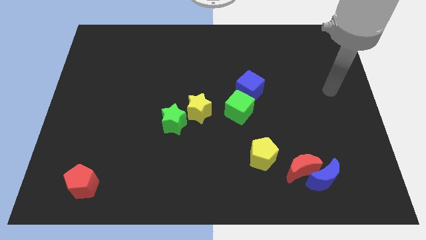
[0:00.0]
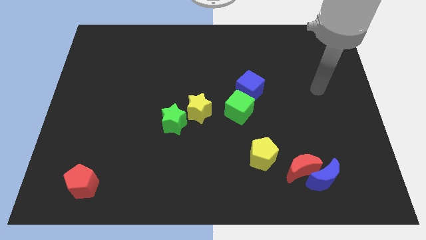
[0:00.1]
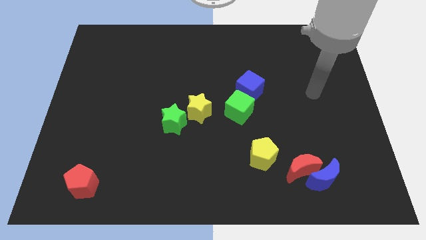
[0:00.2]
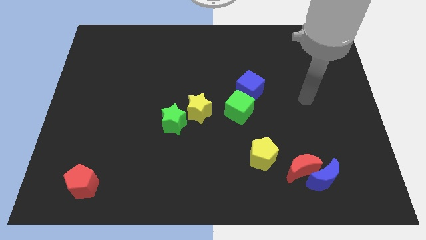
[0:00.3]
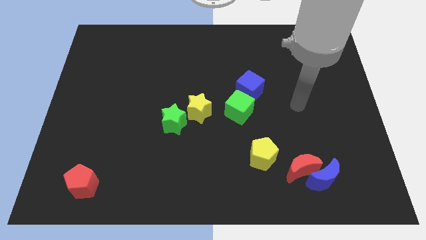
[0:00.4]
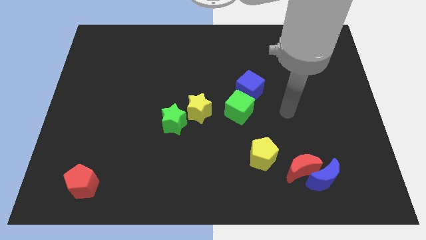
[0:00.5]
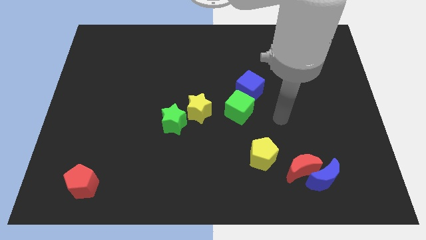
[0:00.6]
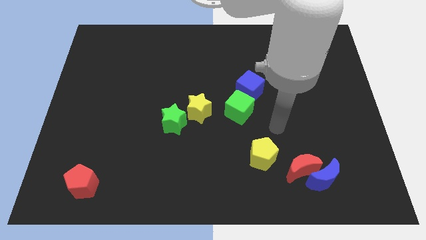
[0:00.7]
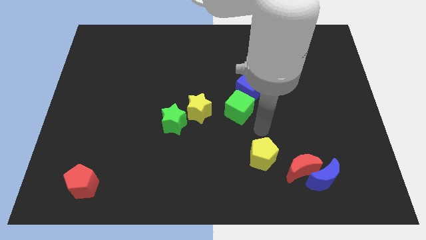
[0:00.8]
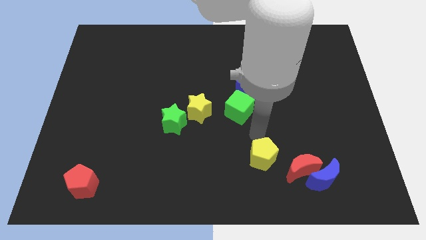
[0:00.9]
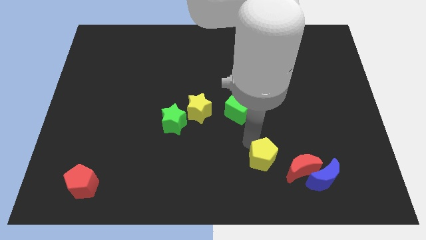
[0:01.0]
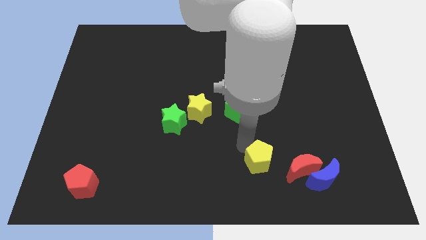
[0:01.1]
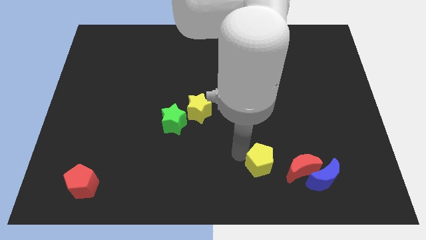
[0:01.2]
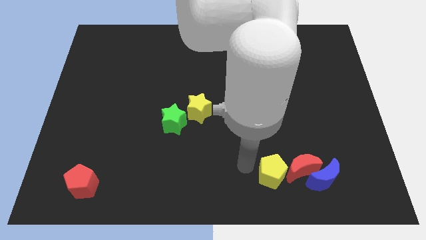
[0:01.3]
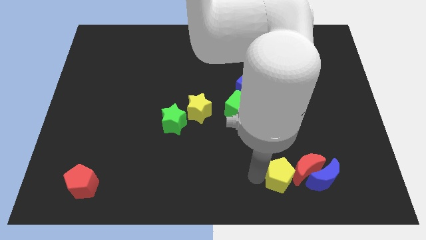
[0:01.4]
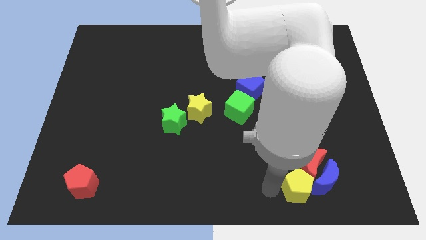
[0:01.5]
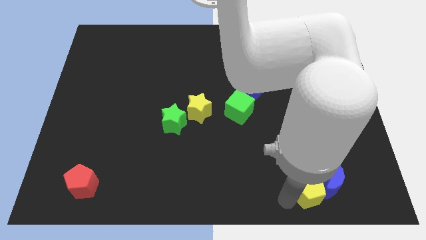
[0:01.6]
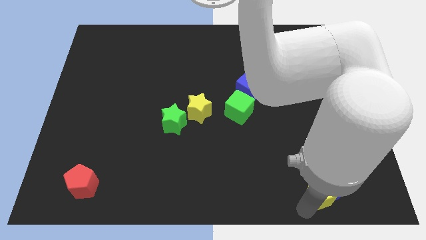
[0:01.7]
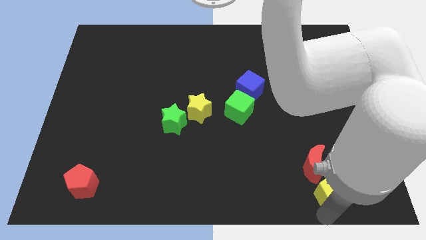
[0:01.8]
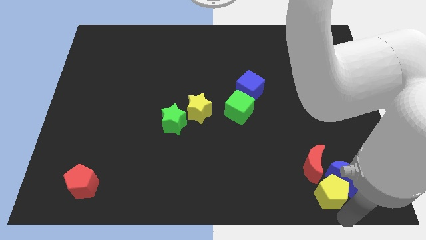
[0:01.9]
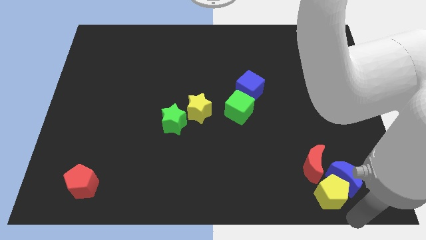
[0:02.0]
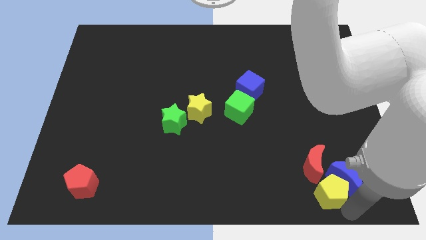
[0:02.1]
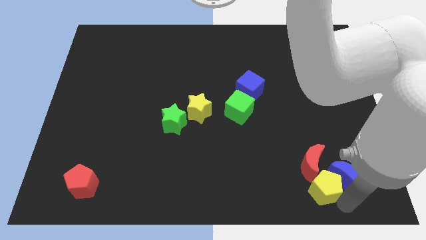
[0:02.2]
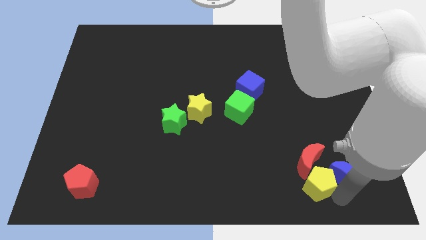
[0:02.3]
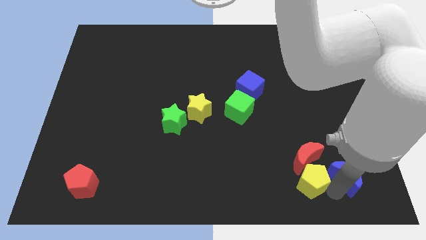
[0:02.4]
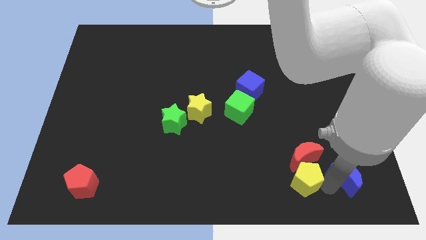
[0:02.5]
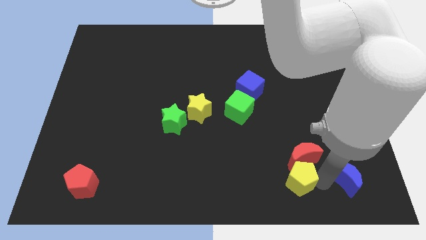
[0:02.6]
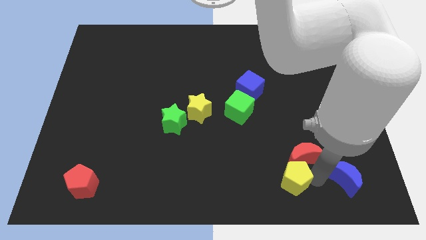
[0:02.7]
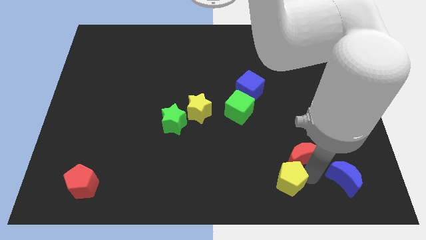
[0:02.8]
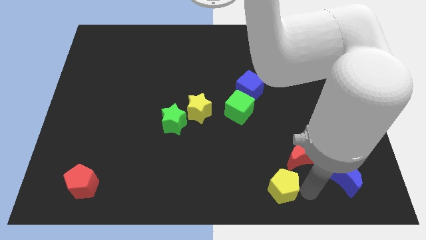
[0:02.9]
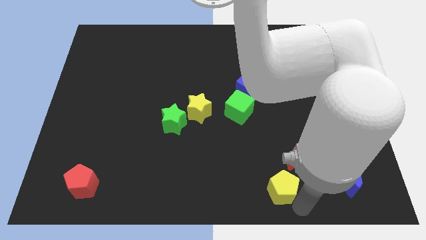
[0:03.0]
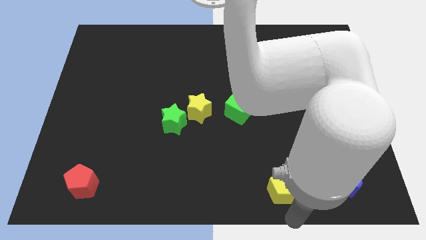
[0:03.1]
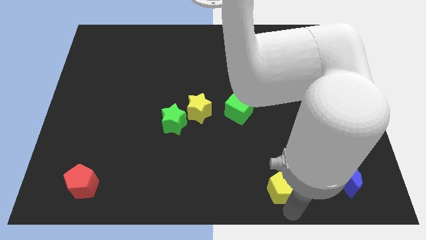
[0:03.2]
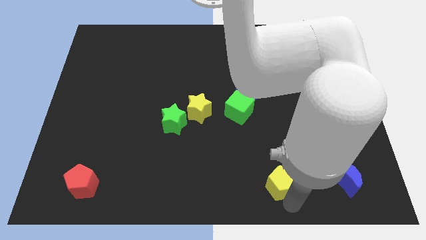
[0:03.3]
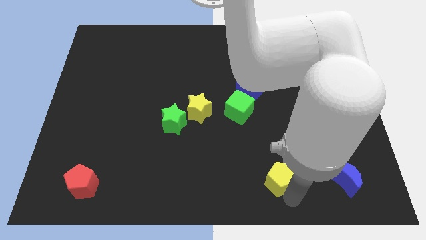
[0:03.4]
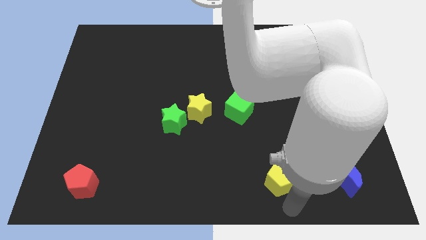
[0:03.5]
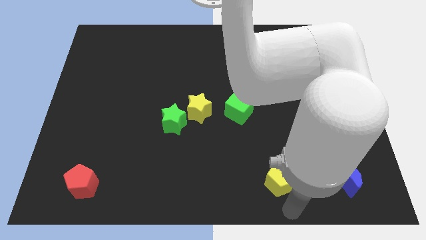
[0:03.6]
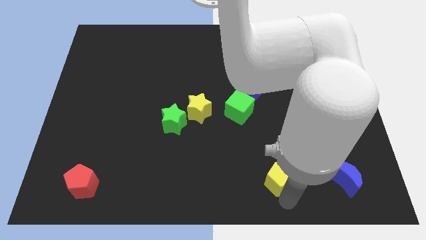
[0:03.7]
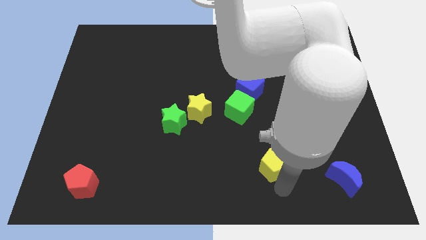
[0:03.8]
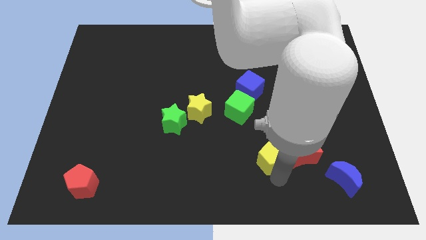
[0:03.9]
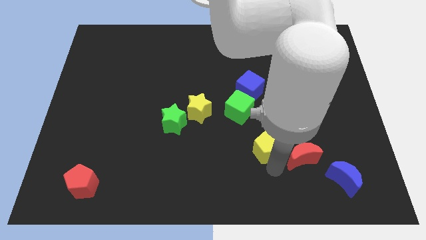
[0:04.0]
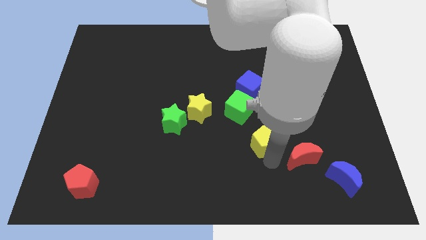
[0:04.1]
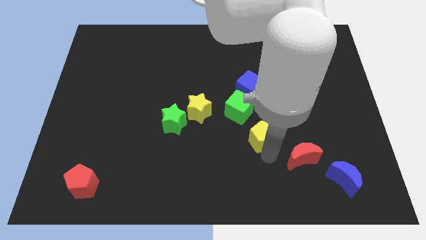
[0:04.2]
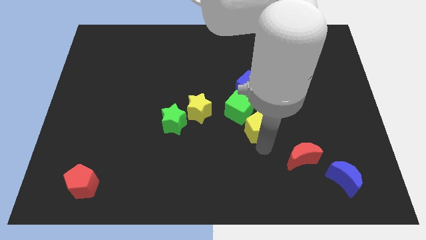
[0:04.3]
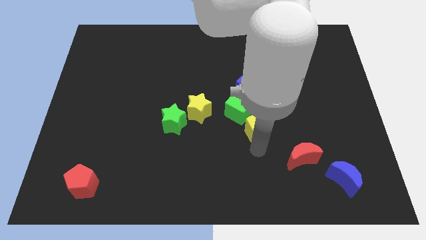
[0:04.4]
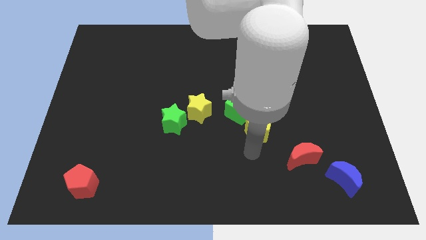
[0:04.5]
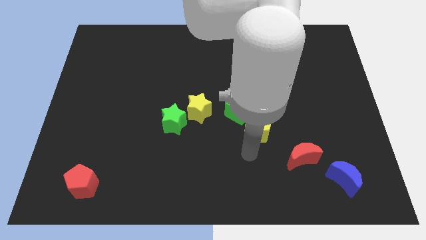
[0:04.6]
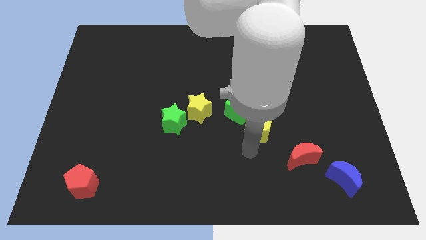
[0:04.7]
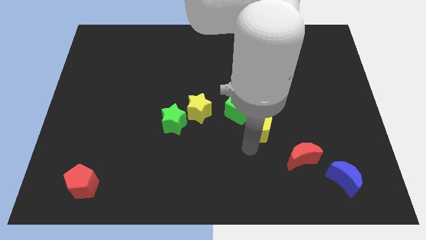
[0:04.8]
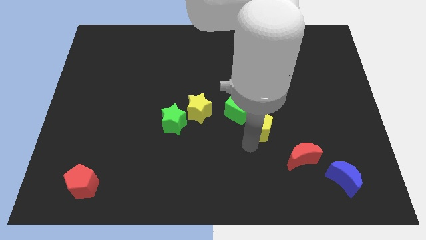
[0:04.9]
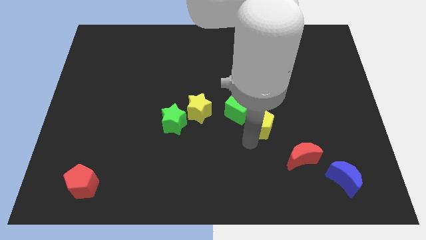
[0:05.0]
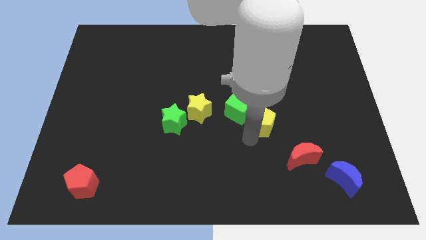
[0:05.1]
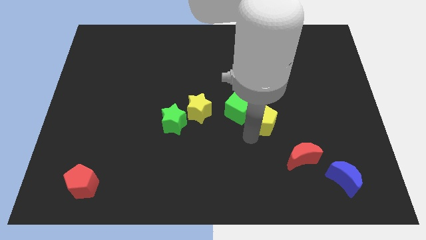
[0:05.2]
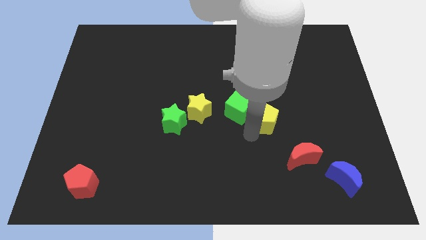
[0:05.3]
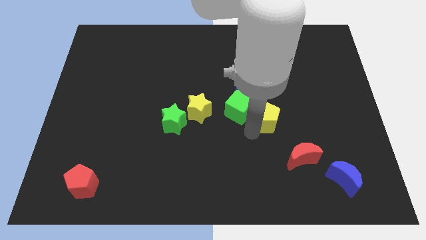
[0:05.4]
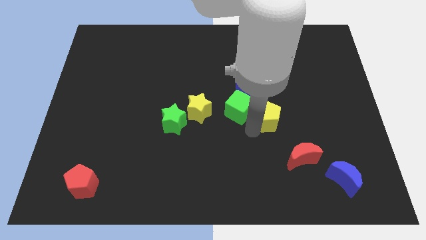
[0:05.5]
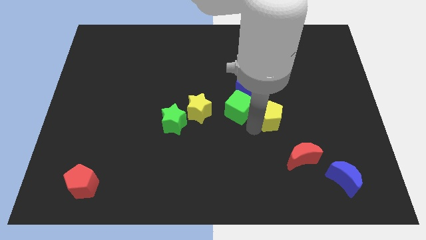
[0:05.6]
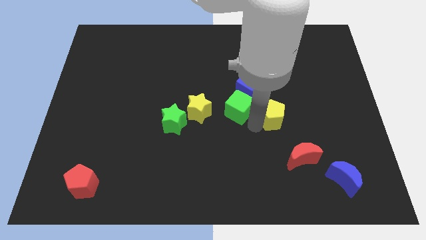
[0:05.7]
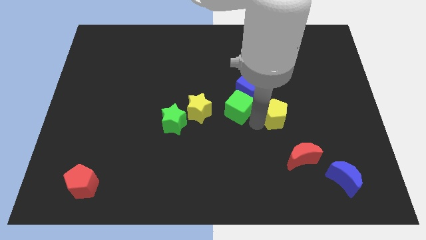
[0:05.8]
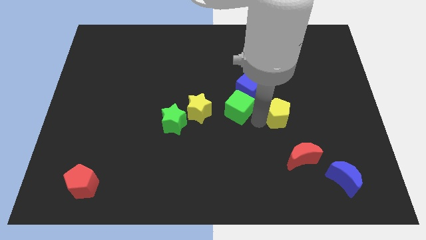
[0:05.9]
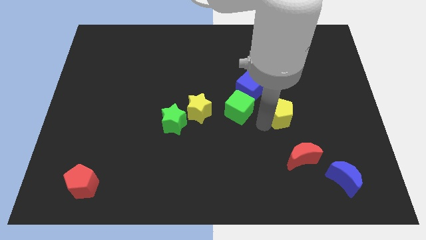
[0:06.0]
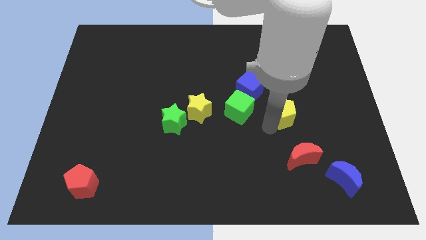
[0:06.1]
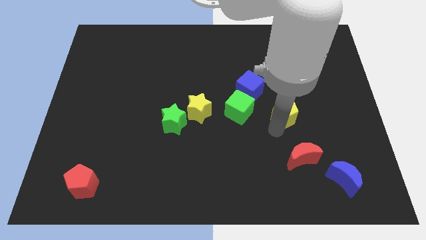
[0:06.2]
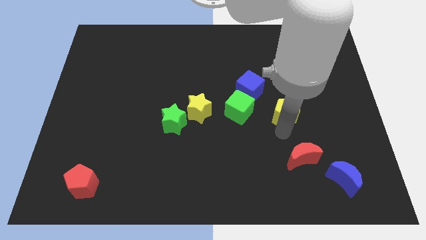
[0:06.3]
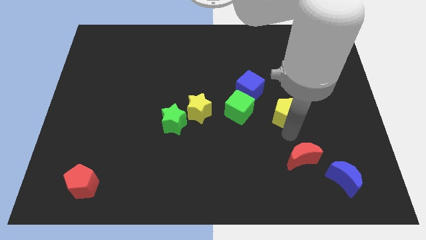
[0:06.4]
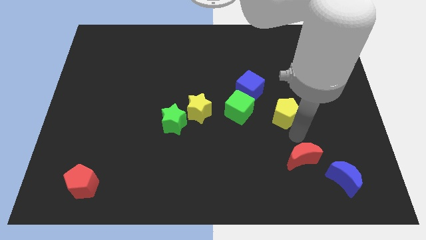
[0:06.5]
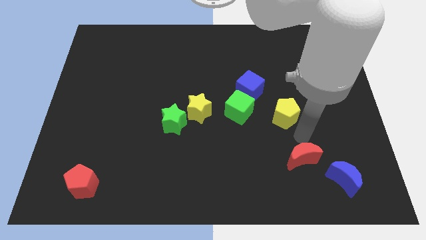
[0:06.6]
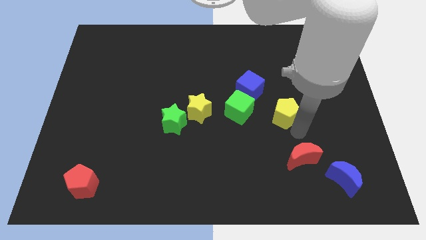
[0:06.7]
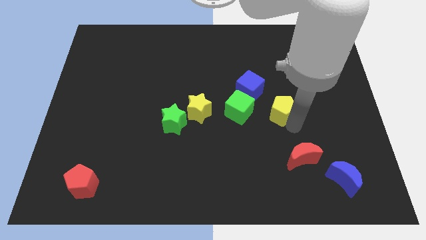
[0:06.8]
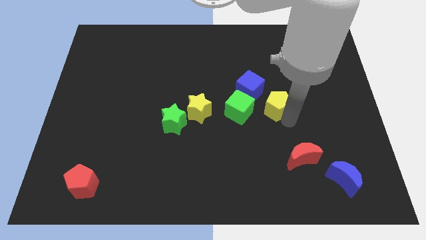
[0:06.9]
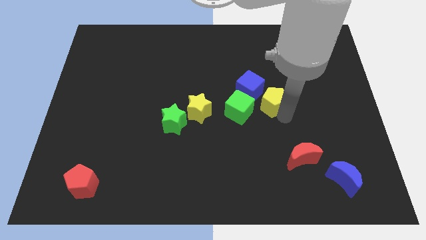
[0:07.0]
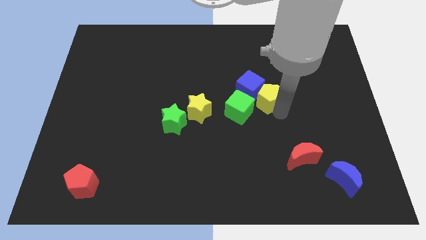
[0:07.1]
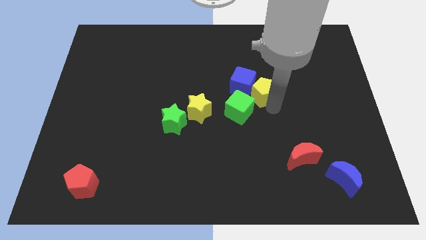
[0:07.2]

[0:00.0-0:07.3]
slide the yellow pentagon to the middle
